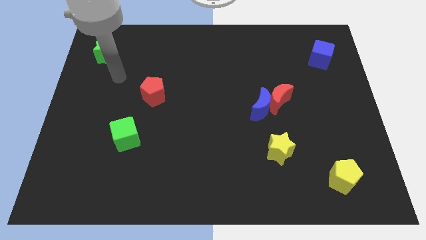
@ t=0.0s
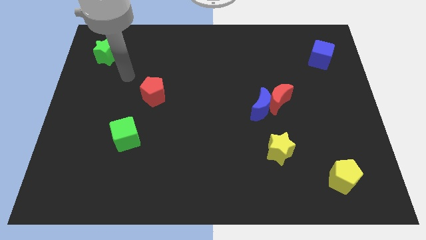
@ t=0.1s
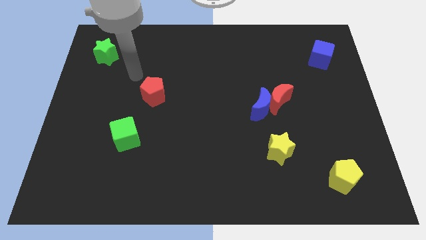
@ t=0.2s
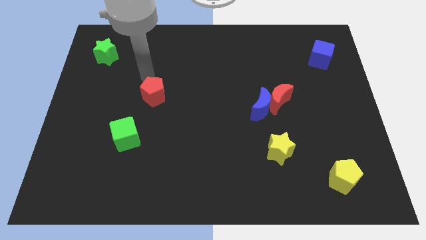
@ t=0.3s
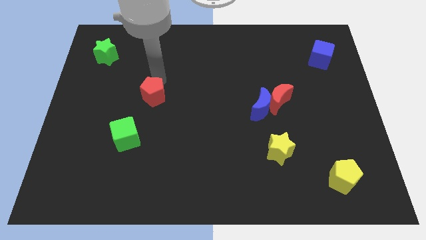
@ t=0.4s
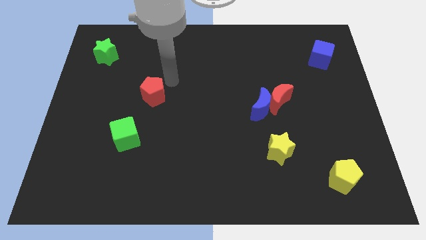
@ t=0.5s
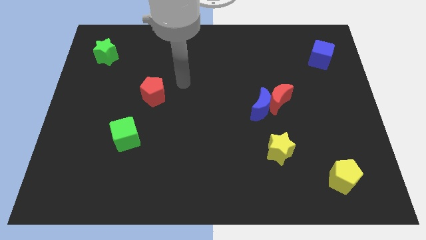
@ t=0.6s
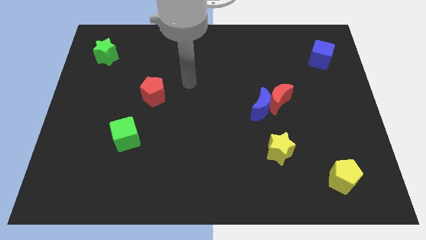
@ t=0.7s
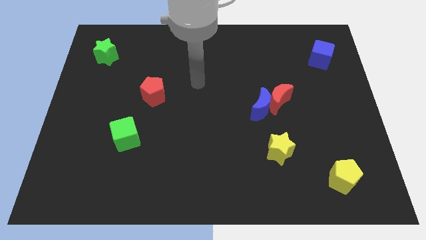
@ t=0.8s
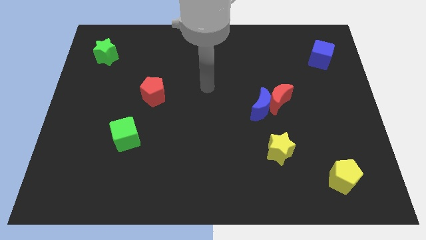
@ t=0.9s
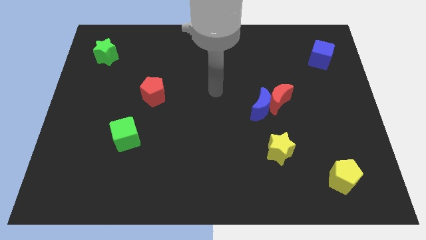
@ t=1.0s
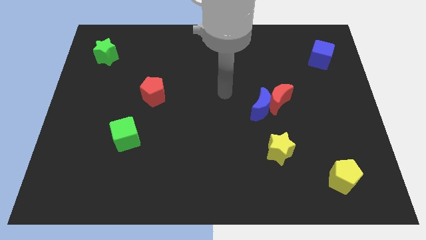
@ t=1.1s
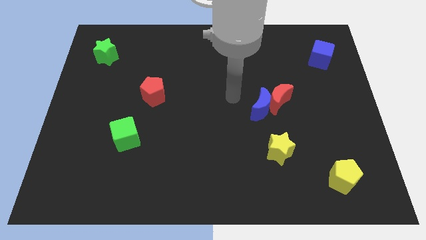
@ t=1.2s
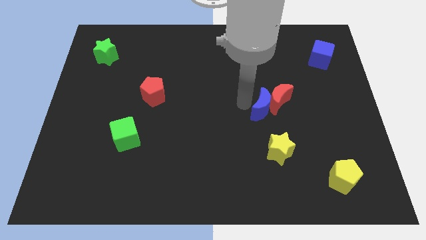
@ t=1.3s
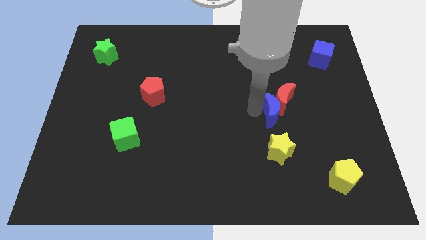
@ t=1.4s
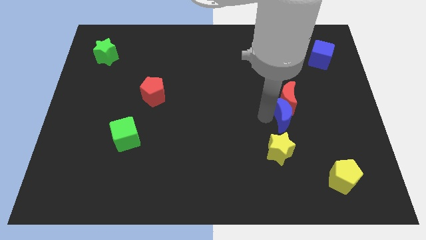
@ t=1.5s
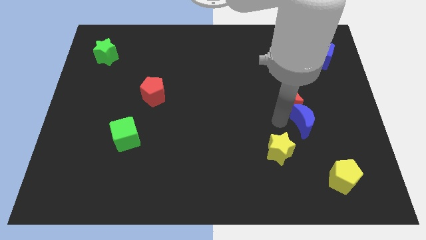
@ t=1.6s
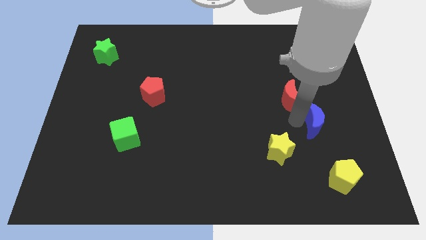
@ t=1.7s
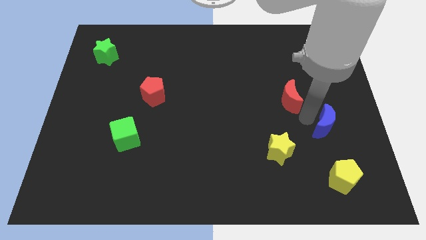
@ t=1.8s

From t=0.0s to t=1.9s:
pull the red moon apart from the blue moon

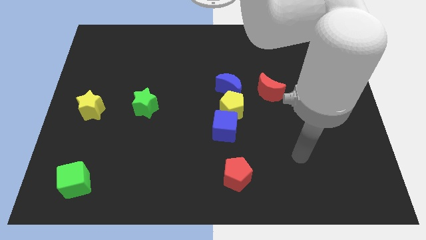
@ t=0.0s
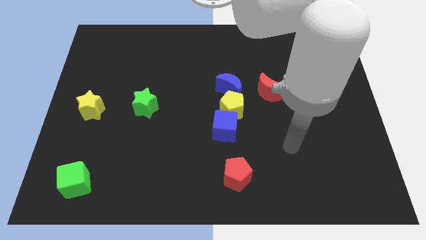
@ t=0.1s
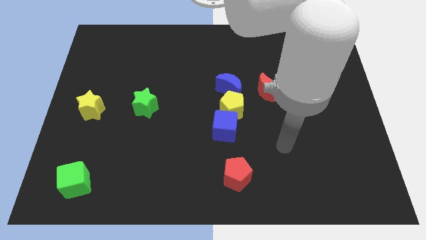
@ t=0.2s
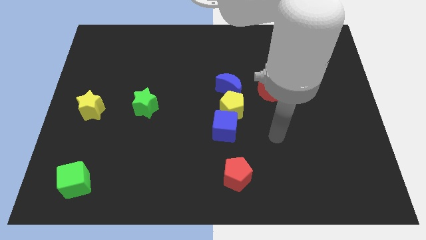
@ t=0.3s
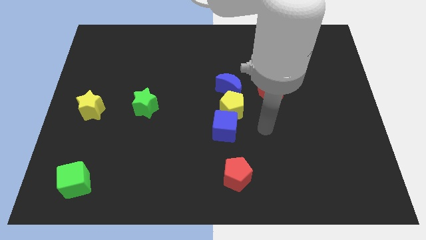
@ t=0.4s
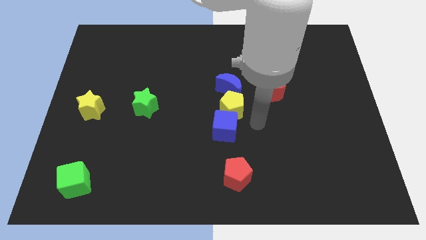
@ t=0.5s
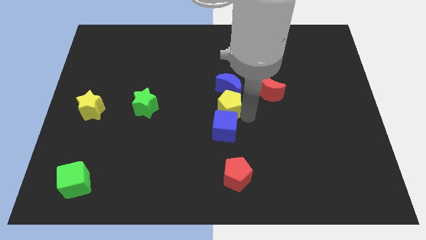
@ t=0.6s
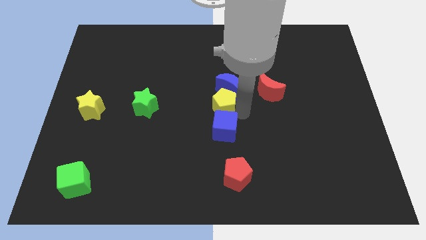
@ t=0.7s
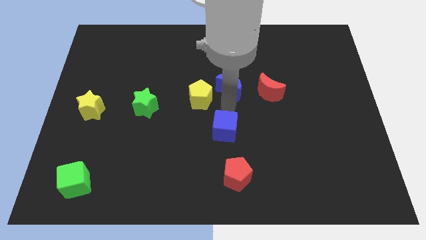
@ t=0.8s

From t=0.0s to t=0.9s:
pull the blue cube apart from the yellow pentagon

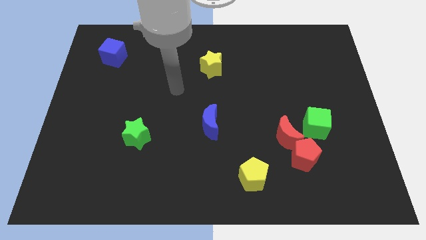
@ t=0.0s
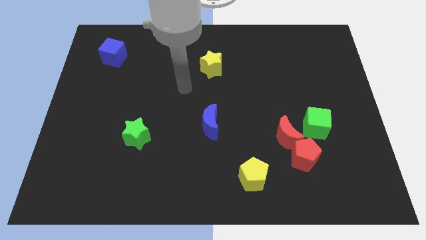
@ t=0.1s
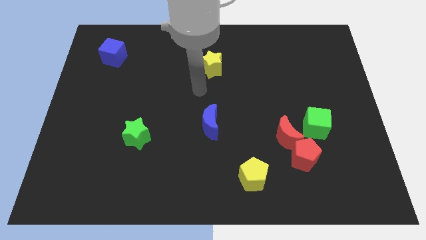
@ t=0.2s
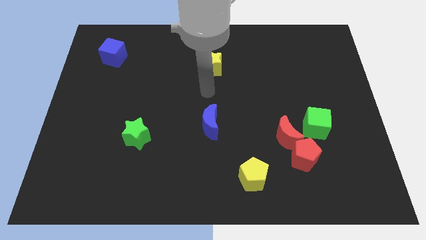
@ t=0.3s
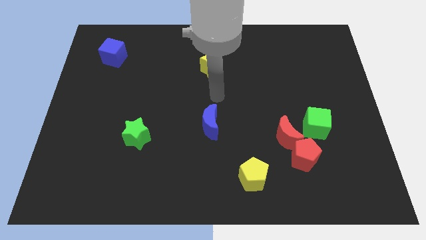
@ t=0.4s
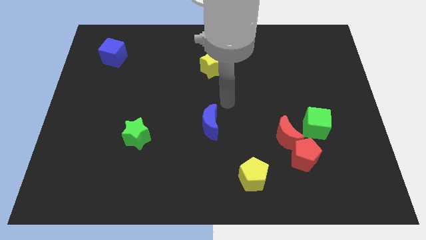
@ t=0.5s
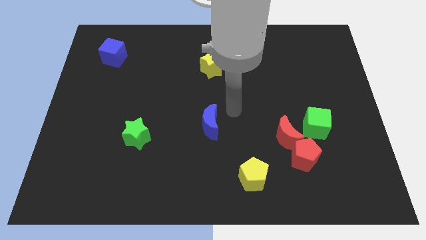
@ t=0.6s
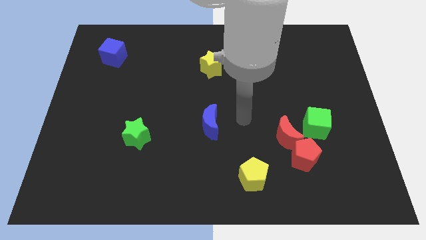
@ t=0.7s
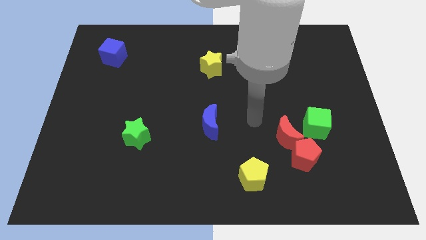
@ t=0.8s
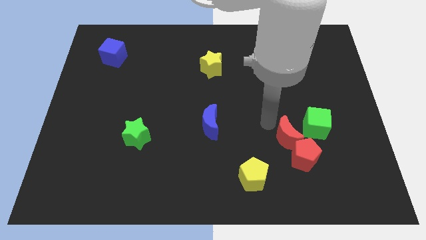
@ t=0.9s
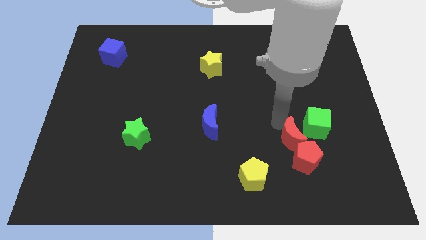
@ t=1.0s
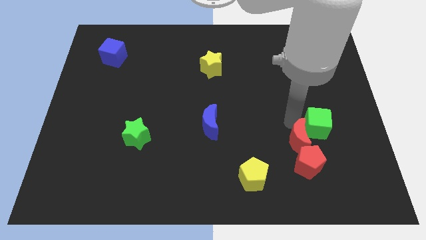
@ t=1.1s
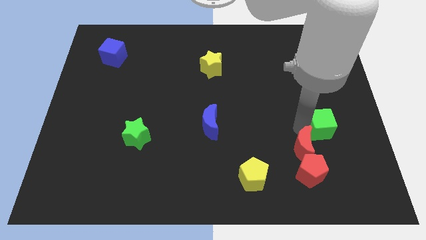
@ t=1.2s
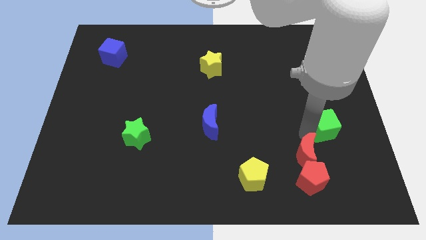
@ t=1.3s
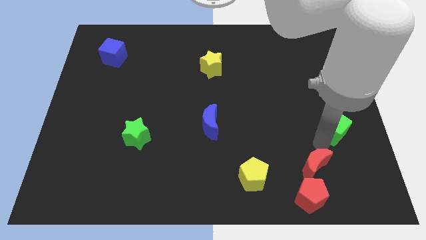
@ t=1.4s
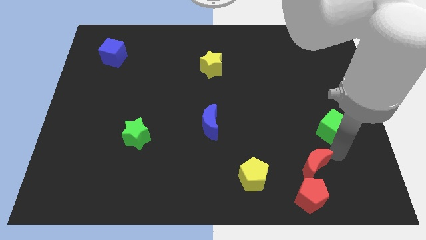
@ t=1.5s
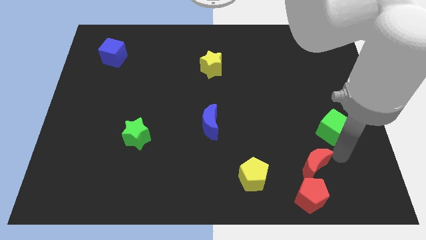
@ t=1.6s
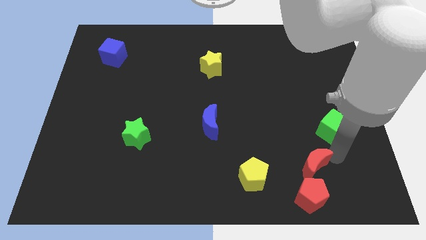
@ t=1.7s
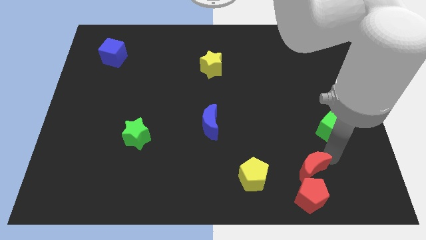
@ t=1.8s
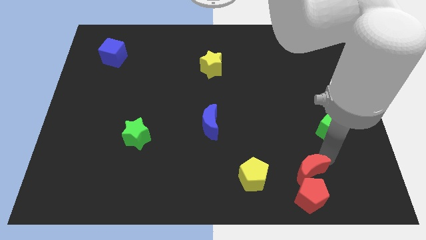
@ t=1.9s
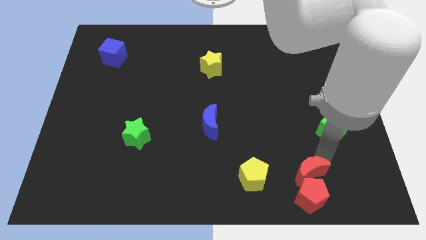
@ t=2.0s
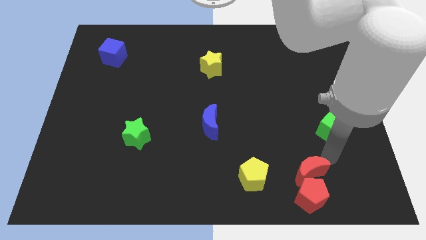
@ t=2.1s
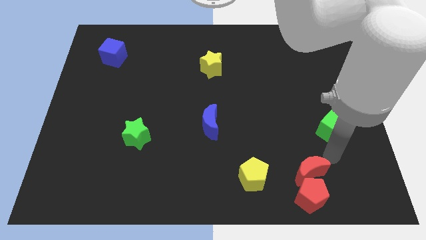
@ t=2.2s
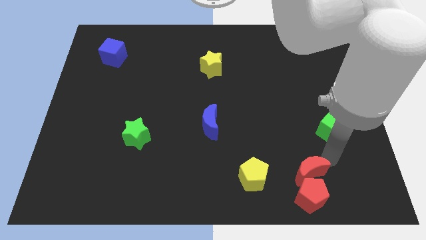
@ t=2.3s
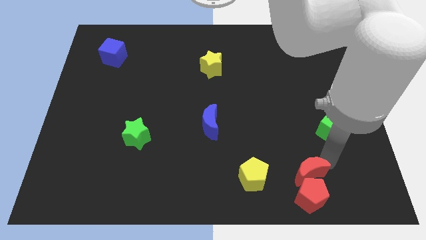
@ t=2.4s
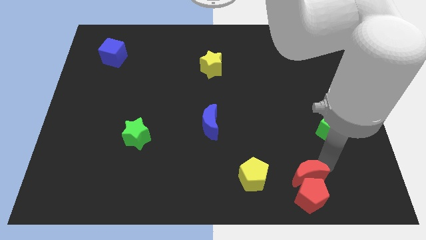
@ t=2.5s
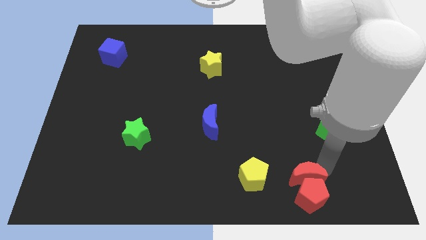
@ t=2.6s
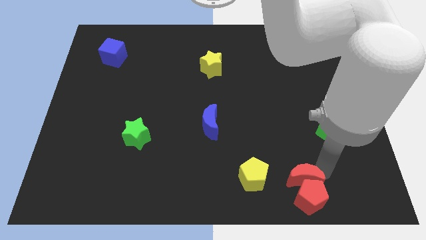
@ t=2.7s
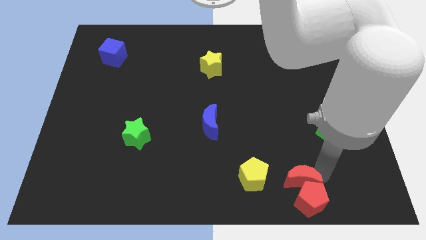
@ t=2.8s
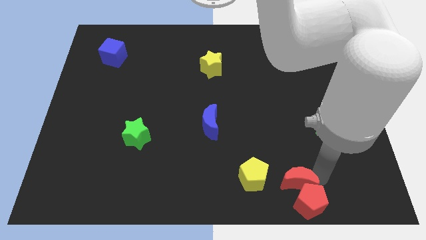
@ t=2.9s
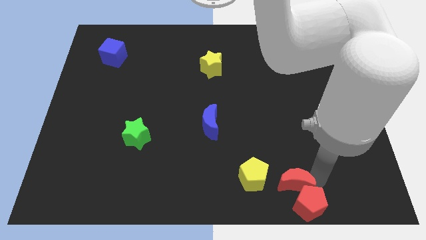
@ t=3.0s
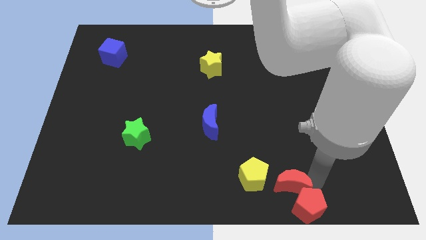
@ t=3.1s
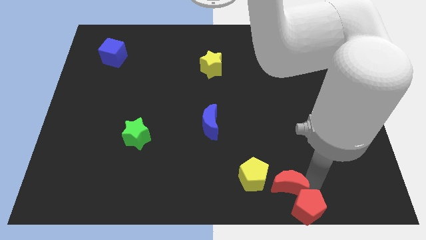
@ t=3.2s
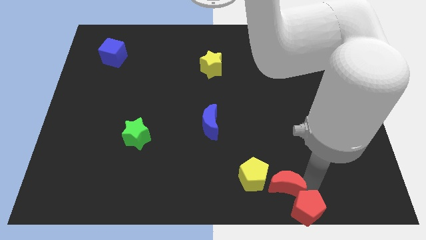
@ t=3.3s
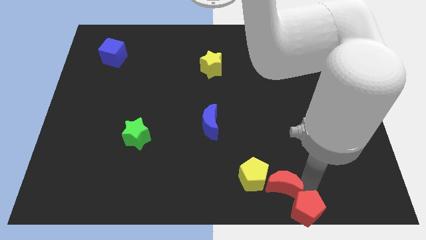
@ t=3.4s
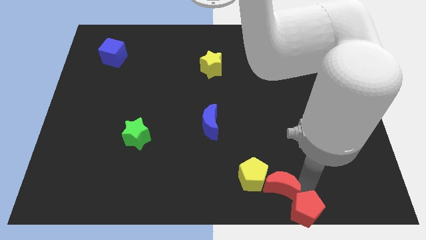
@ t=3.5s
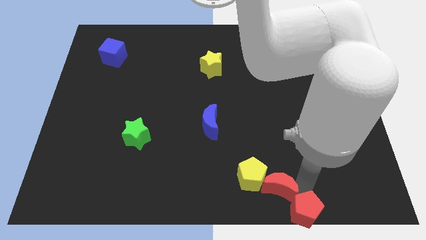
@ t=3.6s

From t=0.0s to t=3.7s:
move the red moon away from the red pentagon and green cube

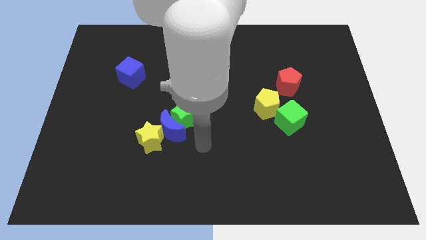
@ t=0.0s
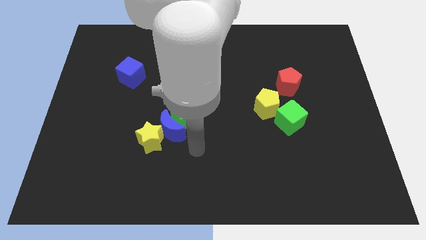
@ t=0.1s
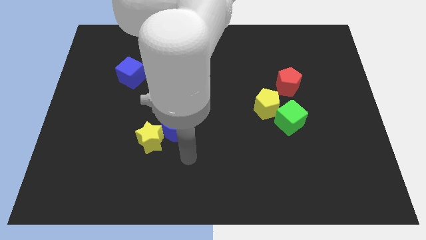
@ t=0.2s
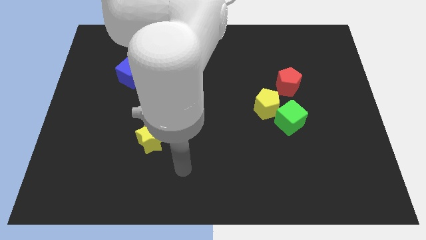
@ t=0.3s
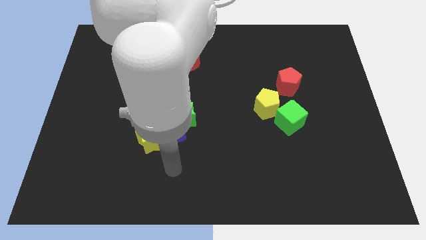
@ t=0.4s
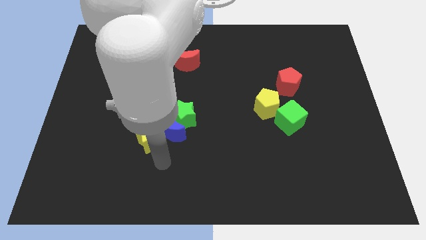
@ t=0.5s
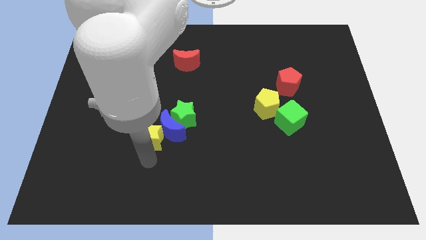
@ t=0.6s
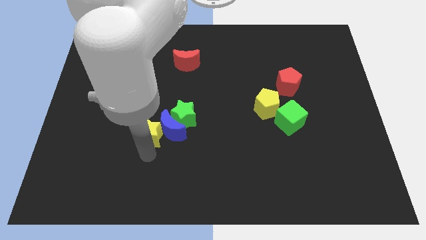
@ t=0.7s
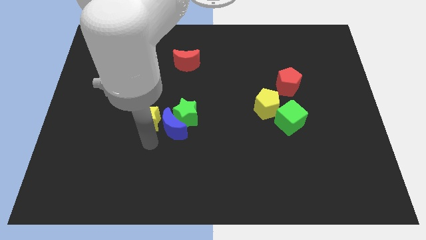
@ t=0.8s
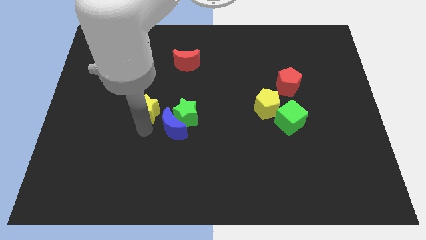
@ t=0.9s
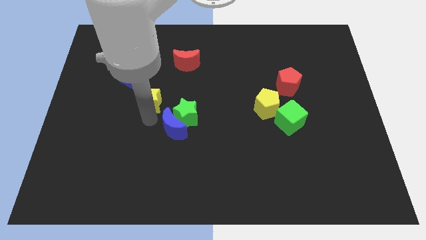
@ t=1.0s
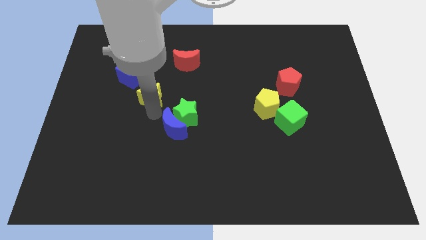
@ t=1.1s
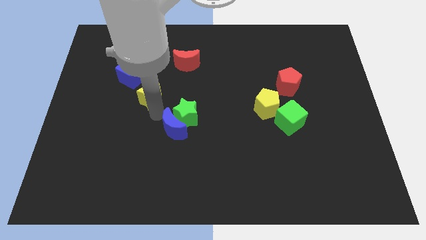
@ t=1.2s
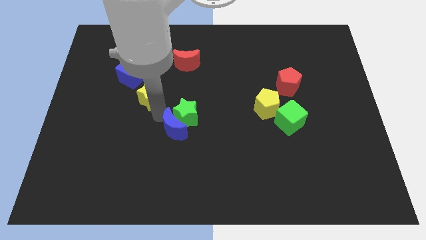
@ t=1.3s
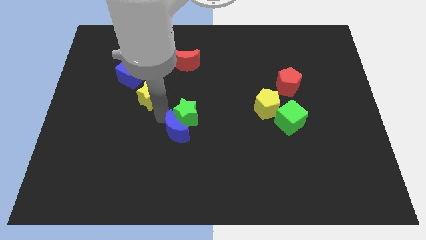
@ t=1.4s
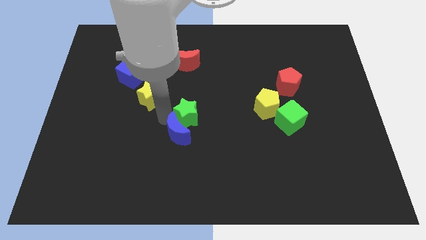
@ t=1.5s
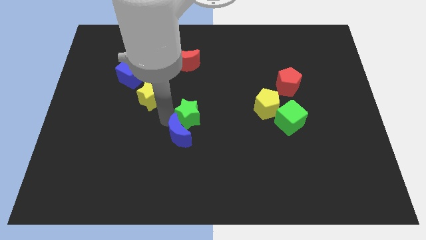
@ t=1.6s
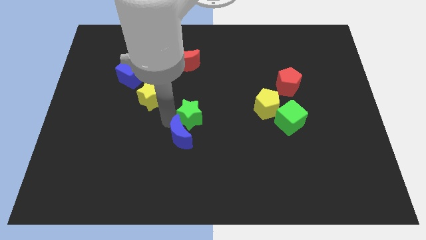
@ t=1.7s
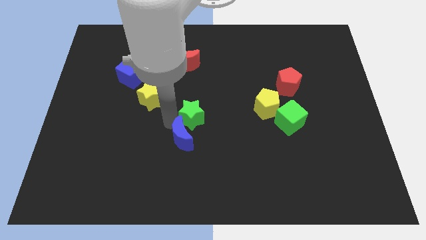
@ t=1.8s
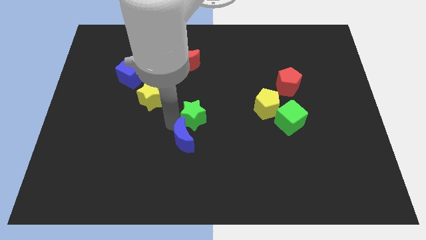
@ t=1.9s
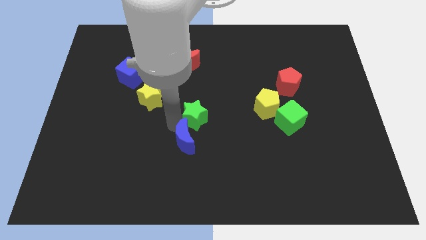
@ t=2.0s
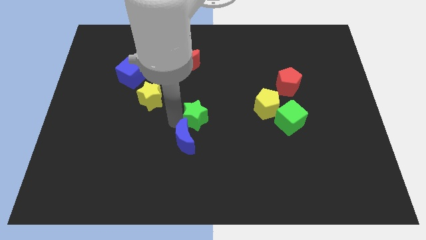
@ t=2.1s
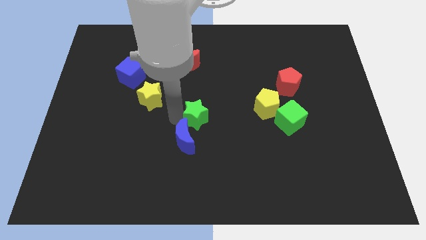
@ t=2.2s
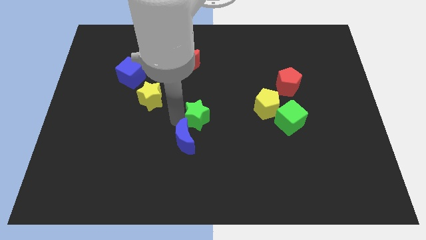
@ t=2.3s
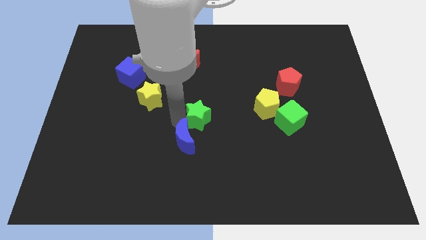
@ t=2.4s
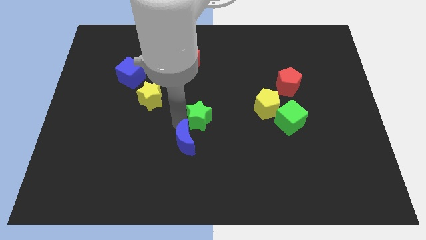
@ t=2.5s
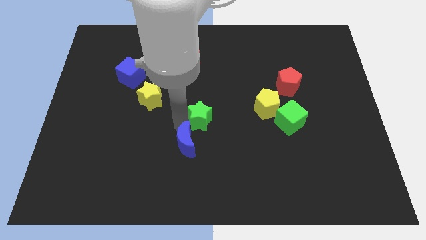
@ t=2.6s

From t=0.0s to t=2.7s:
move the blue moon away from the green star and yellow star
